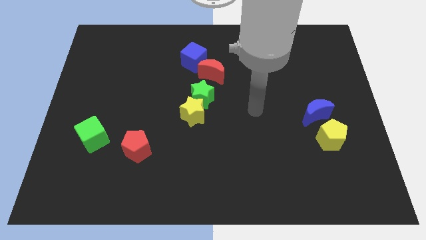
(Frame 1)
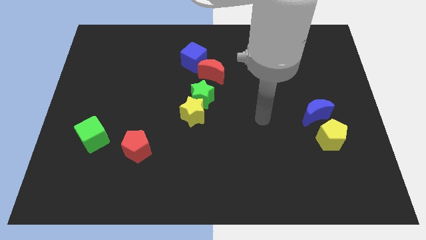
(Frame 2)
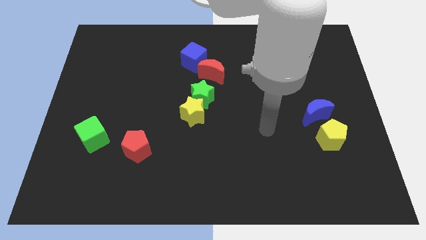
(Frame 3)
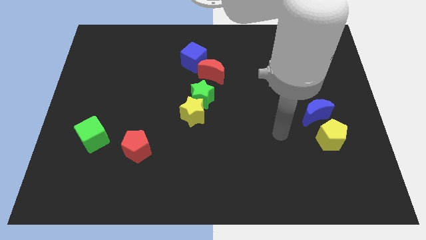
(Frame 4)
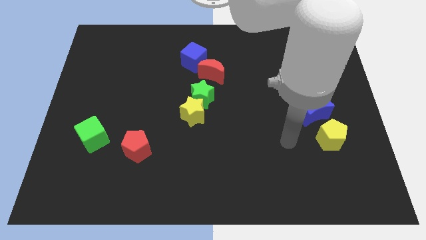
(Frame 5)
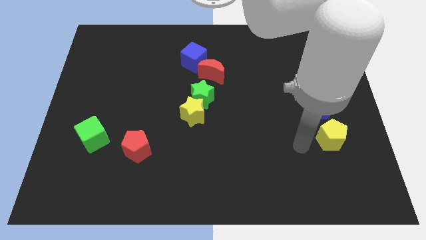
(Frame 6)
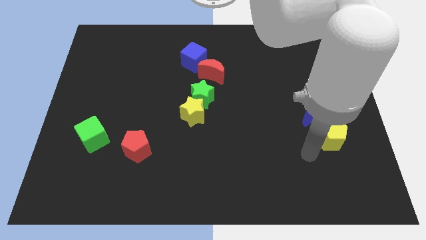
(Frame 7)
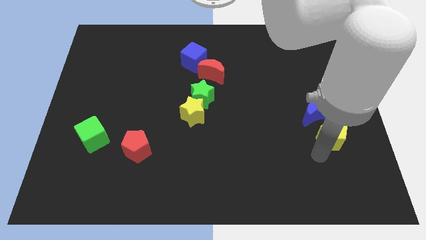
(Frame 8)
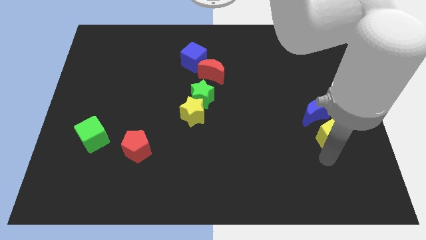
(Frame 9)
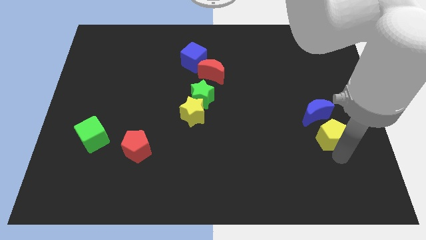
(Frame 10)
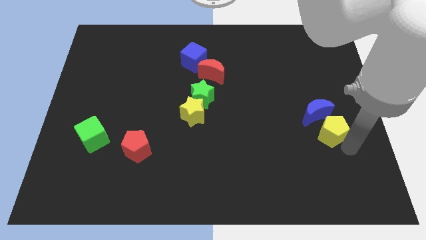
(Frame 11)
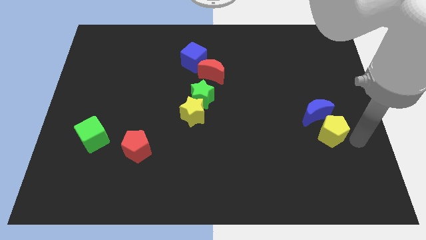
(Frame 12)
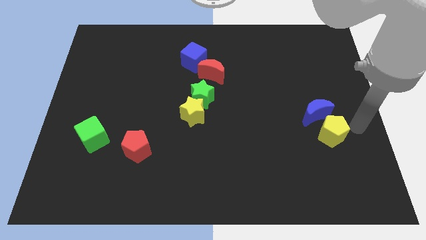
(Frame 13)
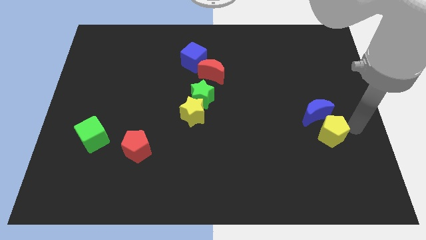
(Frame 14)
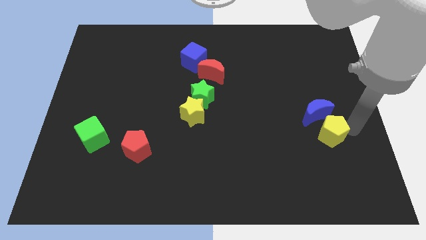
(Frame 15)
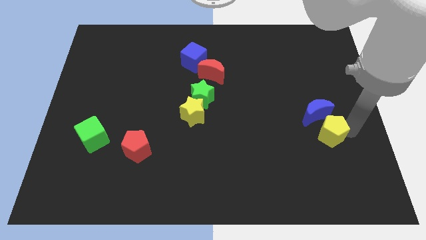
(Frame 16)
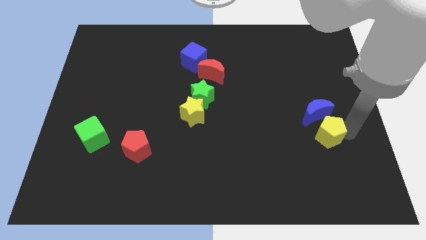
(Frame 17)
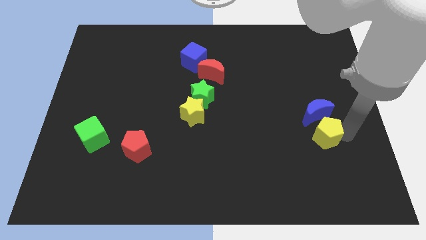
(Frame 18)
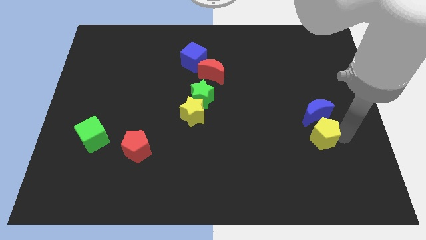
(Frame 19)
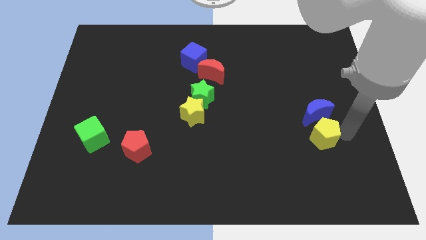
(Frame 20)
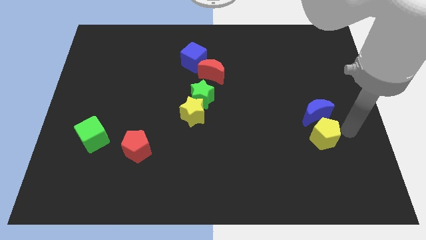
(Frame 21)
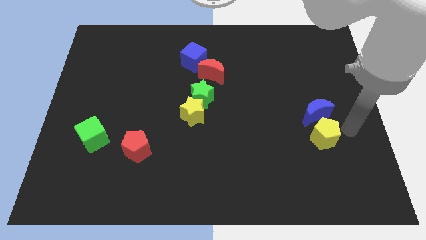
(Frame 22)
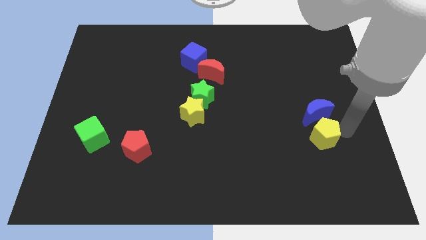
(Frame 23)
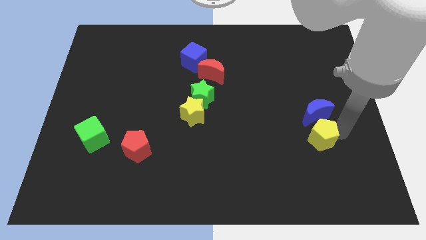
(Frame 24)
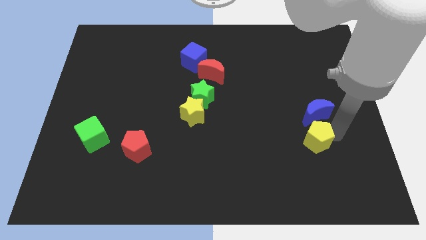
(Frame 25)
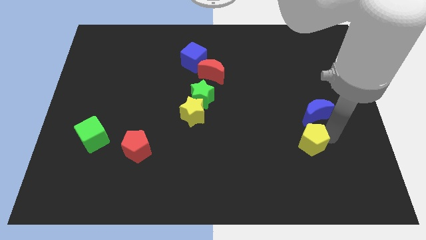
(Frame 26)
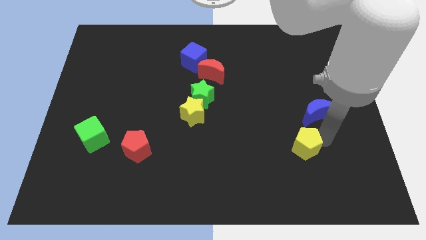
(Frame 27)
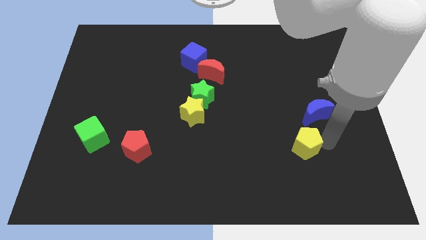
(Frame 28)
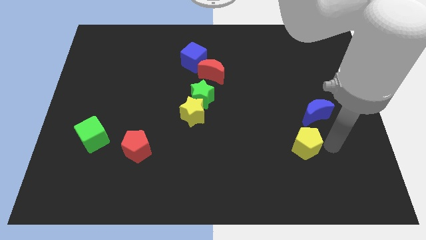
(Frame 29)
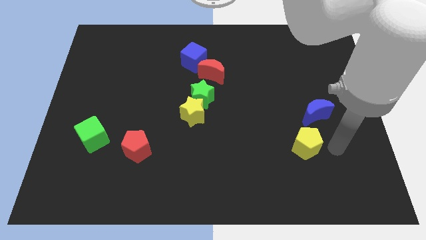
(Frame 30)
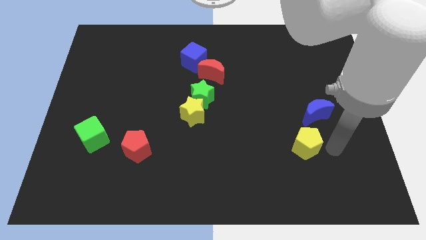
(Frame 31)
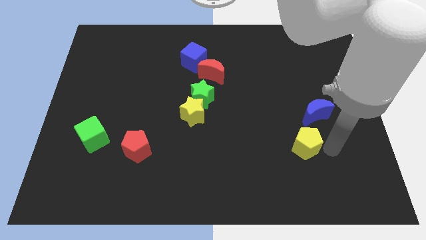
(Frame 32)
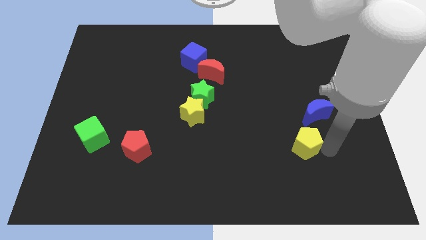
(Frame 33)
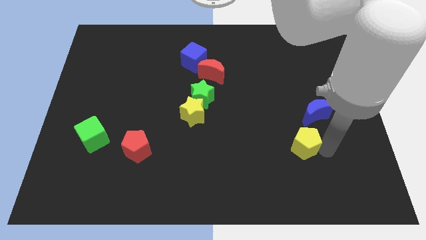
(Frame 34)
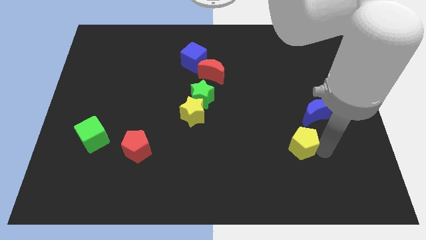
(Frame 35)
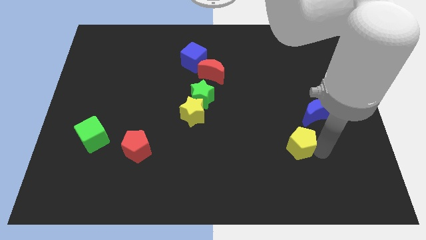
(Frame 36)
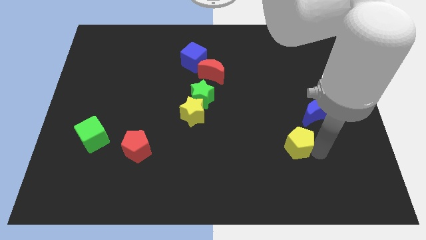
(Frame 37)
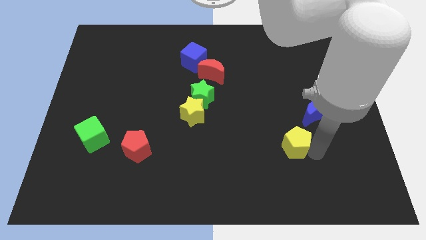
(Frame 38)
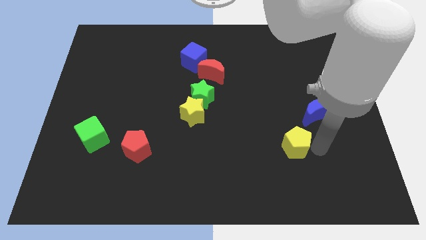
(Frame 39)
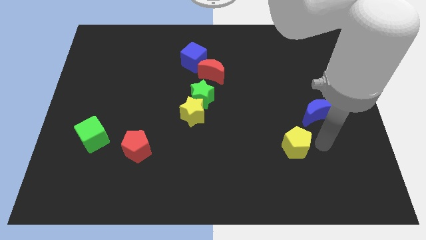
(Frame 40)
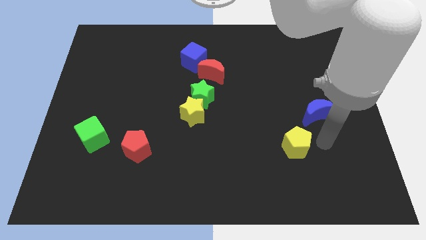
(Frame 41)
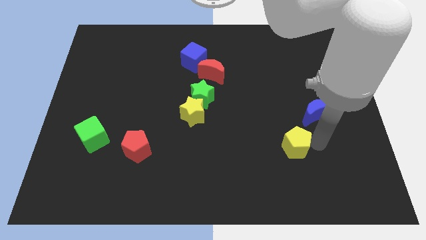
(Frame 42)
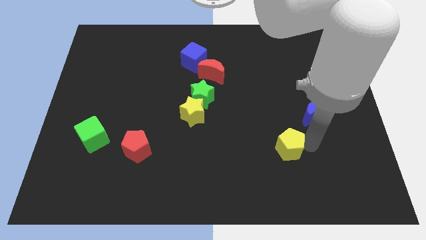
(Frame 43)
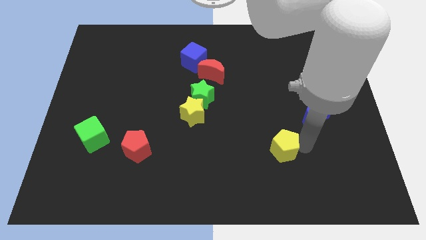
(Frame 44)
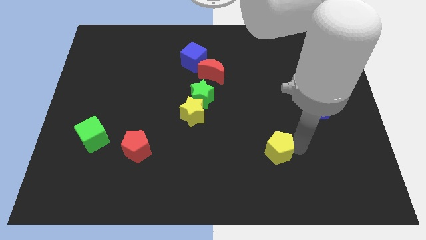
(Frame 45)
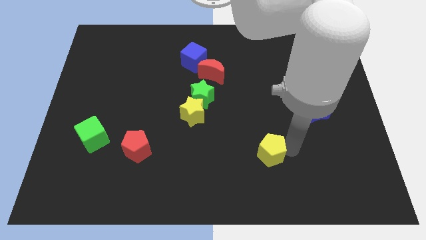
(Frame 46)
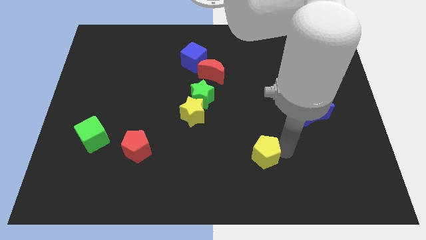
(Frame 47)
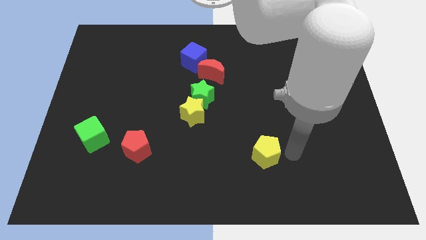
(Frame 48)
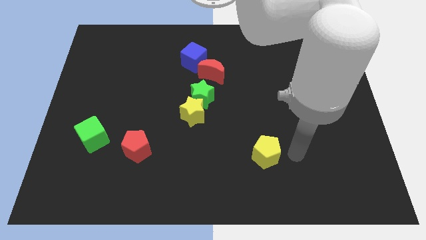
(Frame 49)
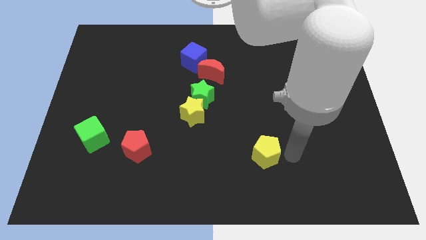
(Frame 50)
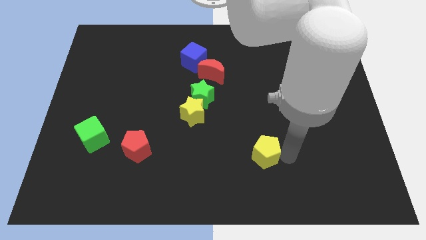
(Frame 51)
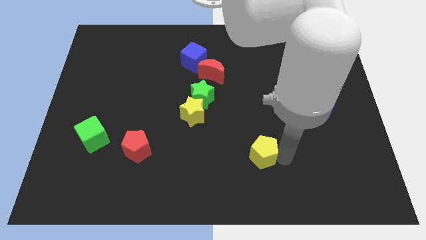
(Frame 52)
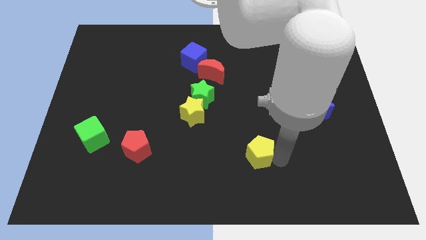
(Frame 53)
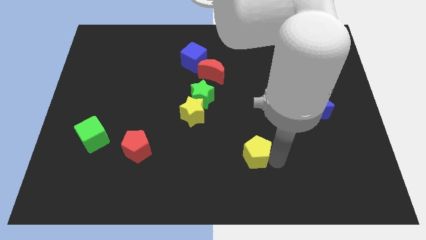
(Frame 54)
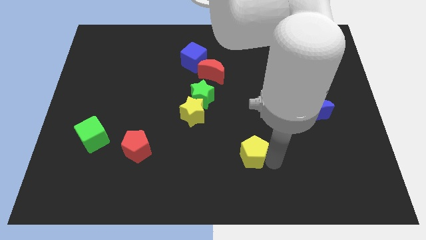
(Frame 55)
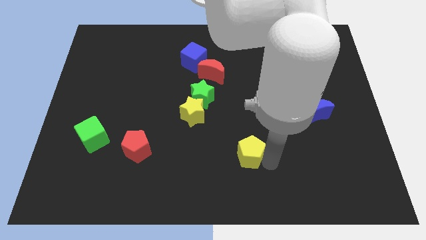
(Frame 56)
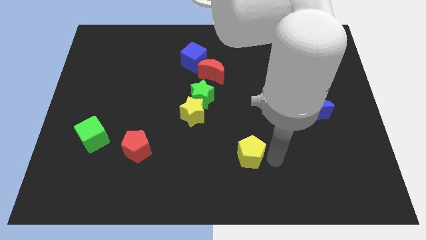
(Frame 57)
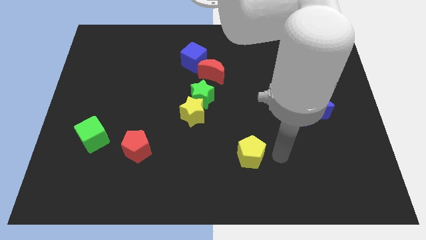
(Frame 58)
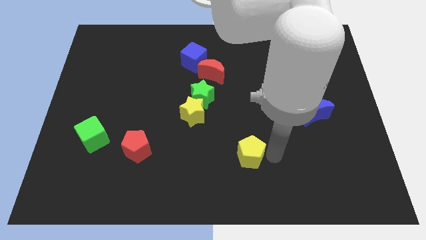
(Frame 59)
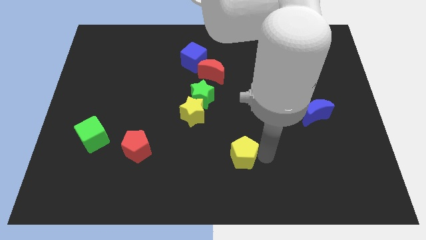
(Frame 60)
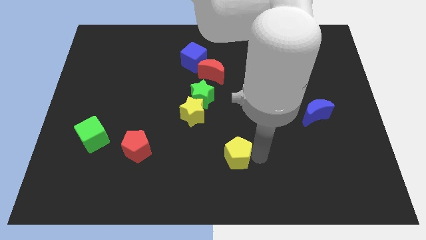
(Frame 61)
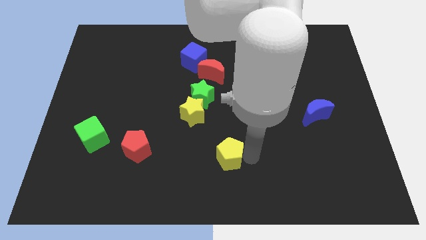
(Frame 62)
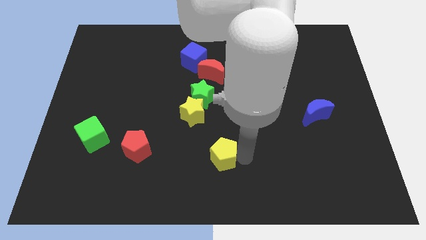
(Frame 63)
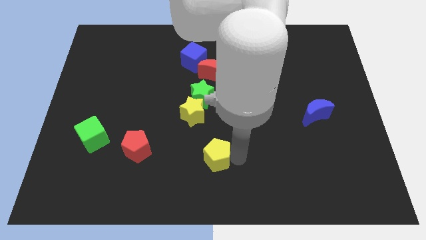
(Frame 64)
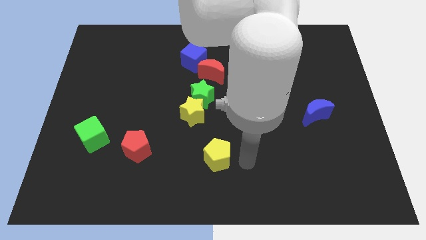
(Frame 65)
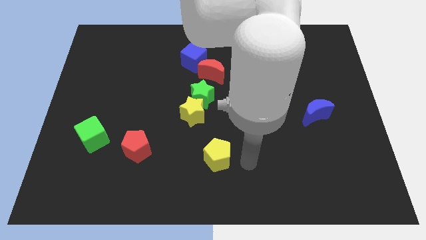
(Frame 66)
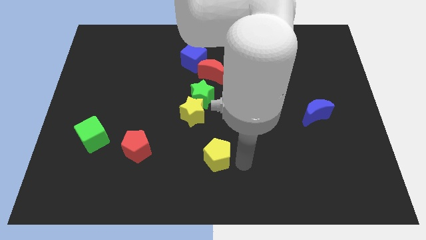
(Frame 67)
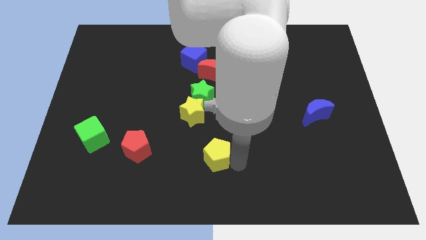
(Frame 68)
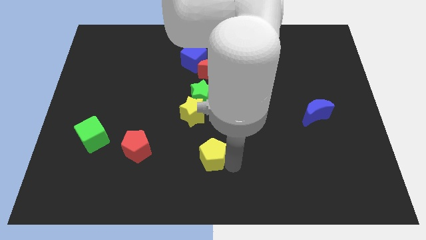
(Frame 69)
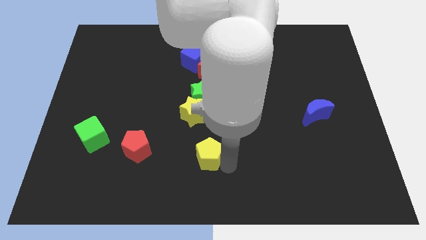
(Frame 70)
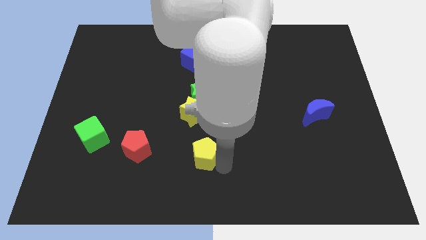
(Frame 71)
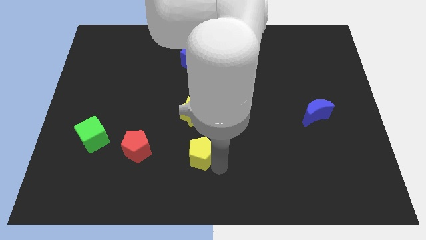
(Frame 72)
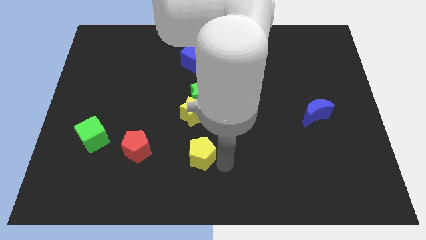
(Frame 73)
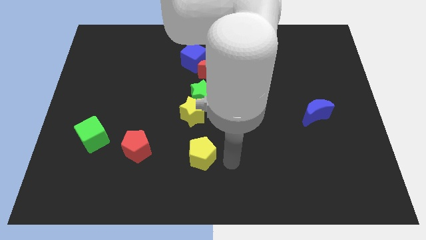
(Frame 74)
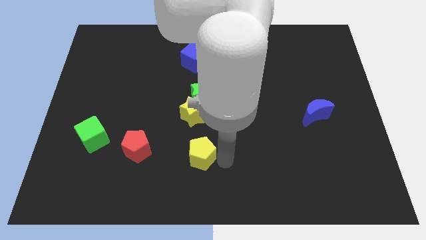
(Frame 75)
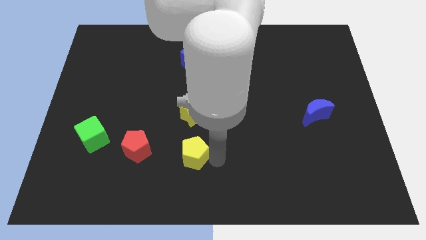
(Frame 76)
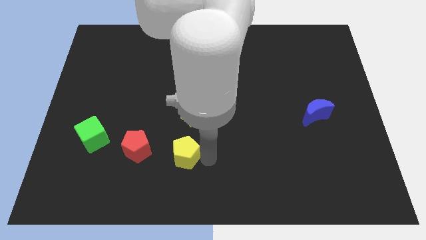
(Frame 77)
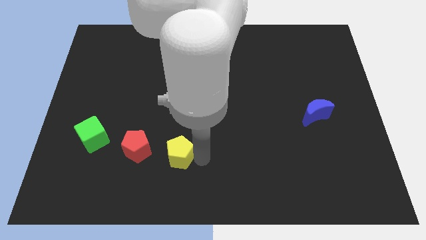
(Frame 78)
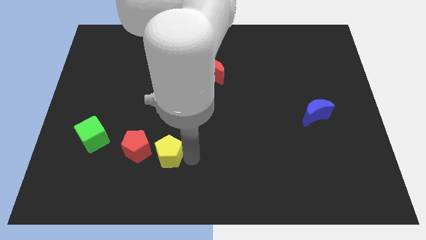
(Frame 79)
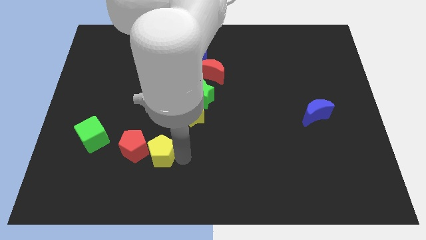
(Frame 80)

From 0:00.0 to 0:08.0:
put the yellow pentagon close to the red pentagon

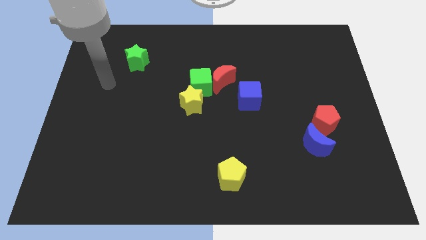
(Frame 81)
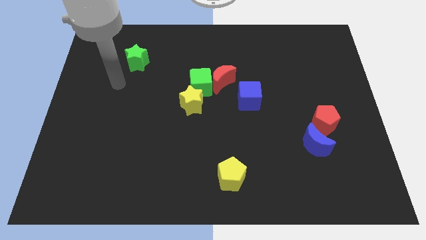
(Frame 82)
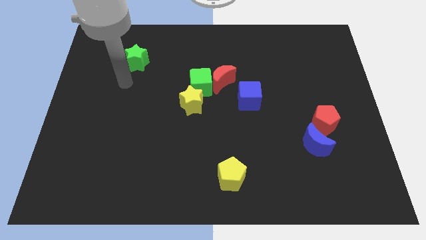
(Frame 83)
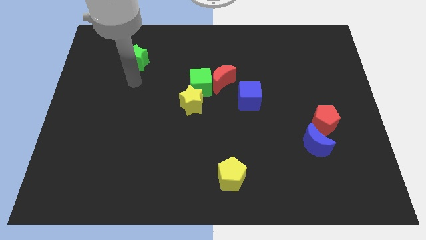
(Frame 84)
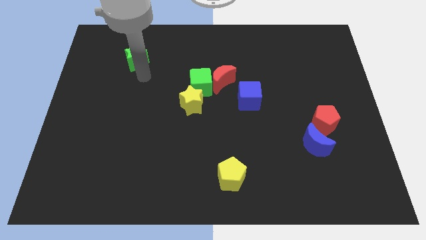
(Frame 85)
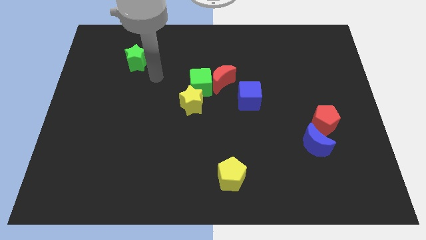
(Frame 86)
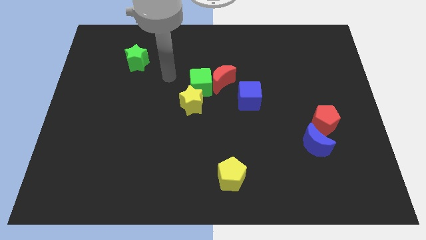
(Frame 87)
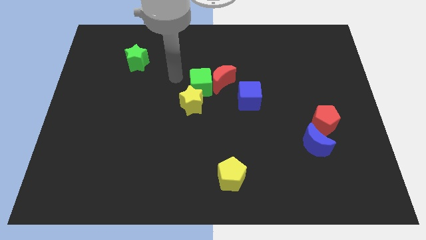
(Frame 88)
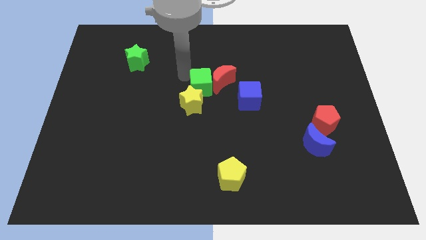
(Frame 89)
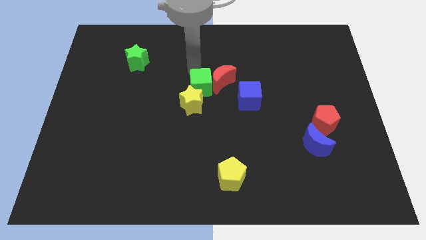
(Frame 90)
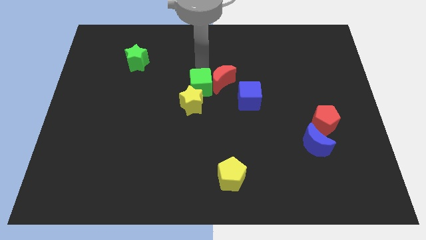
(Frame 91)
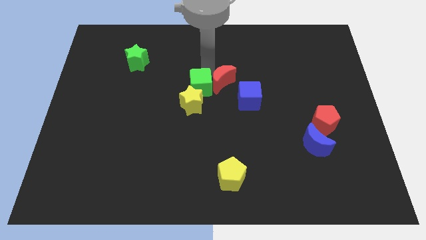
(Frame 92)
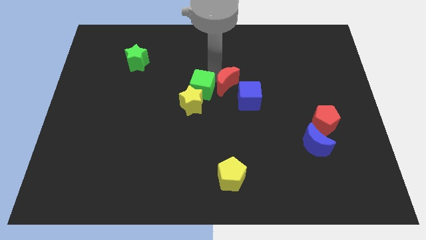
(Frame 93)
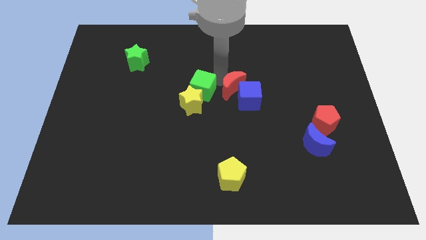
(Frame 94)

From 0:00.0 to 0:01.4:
move the red moon next to the blue cube
